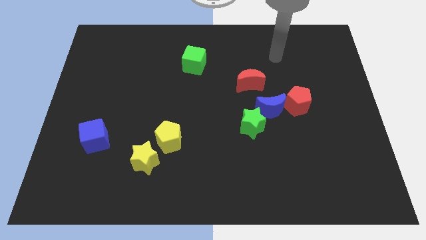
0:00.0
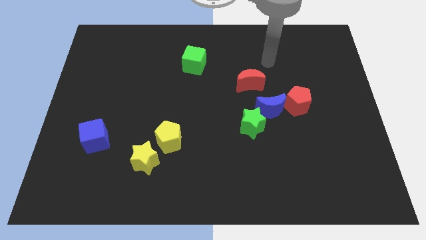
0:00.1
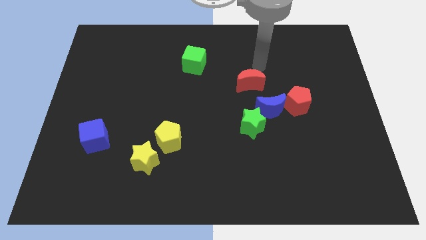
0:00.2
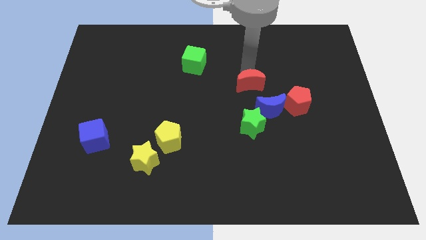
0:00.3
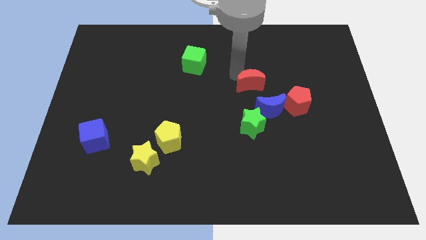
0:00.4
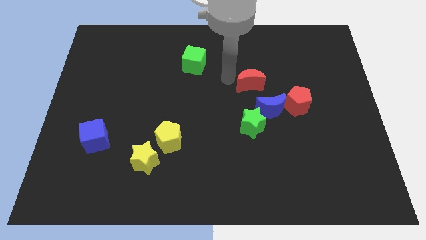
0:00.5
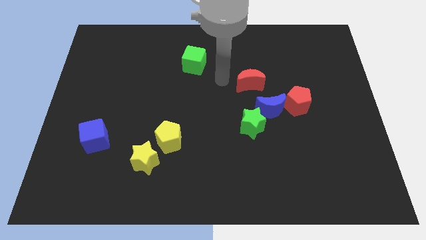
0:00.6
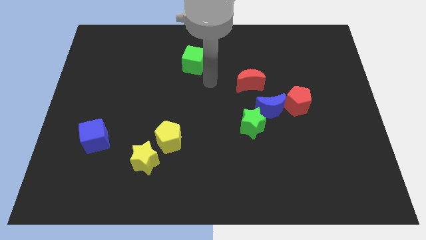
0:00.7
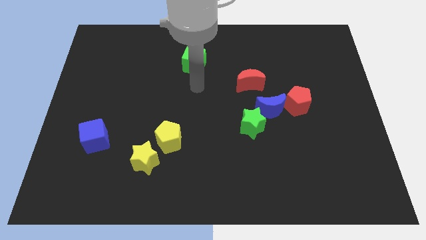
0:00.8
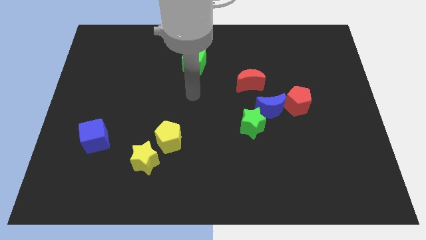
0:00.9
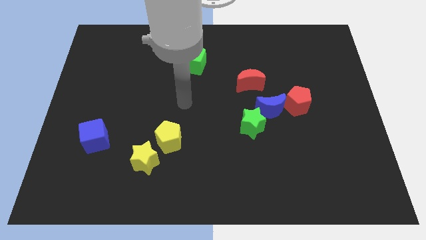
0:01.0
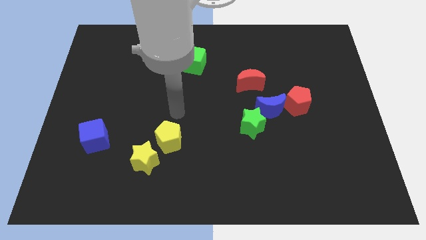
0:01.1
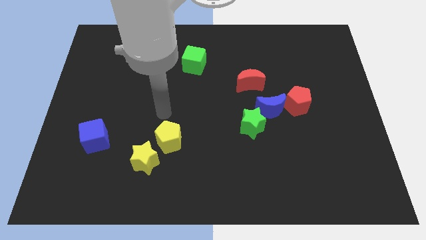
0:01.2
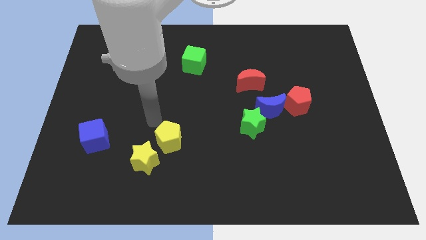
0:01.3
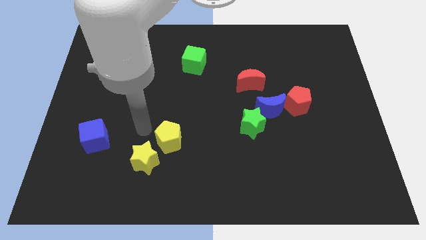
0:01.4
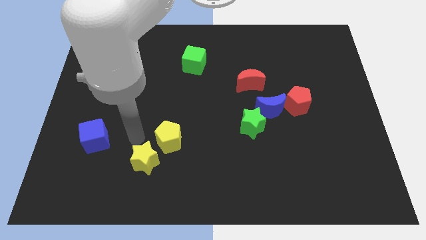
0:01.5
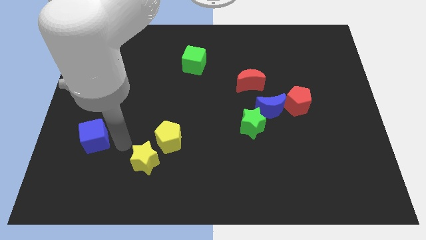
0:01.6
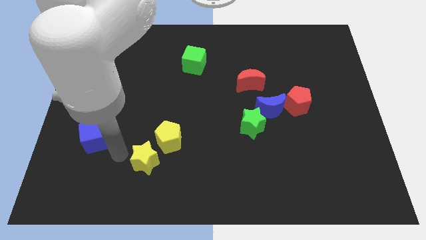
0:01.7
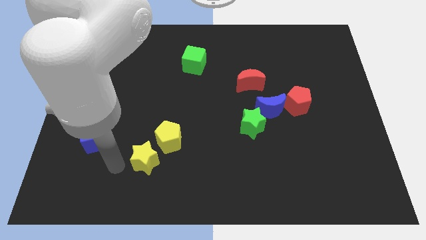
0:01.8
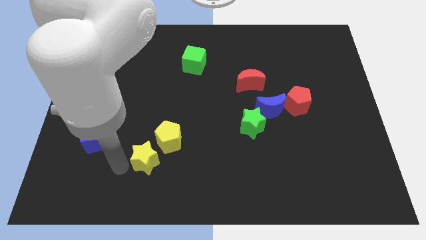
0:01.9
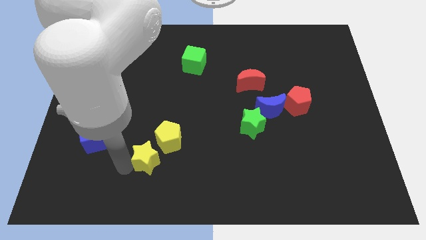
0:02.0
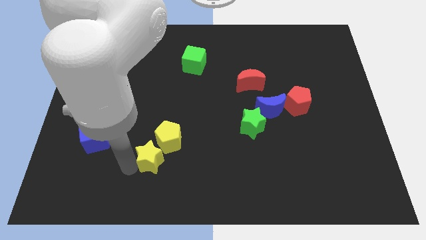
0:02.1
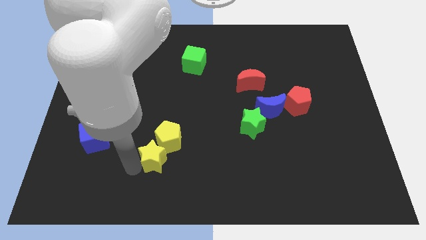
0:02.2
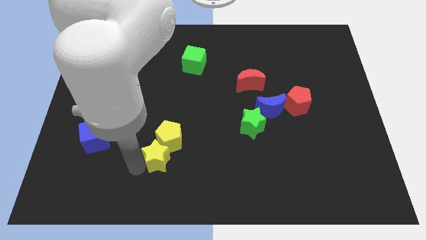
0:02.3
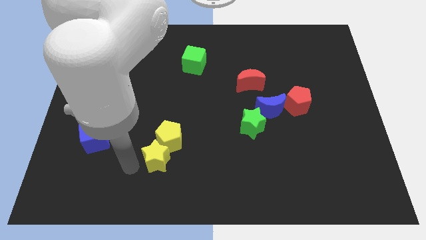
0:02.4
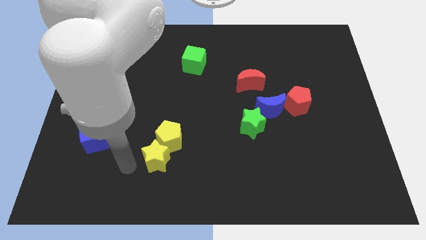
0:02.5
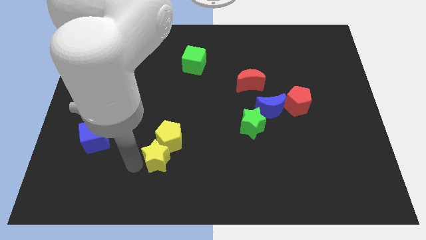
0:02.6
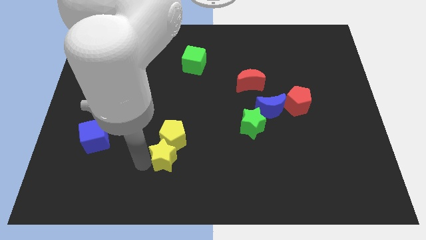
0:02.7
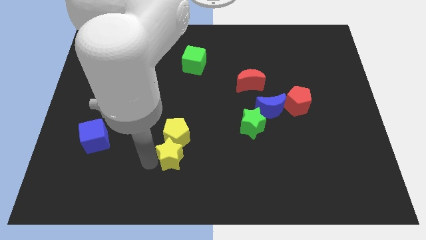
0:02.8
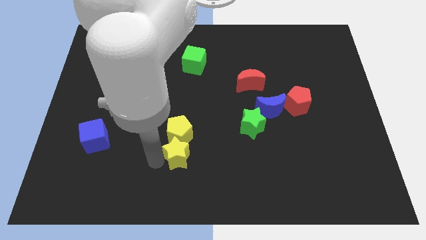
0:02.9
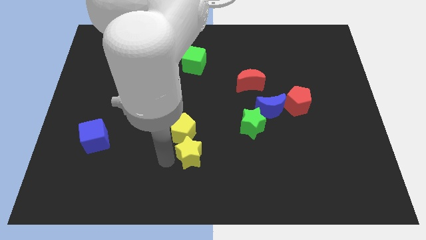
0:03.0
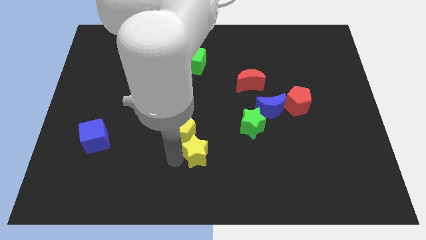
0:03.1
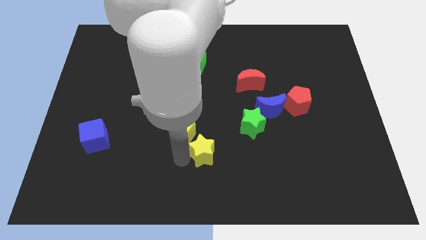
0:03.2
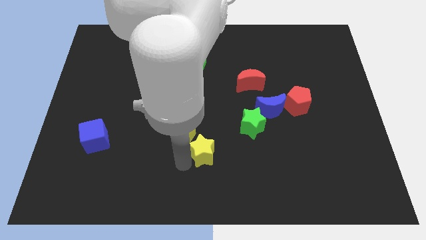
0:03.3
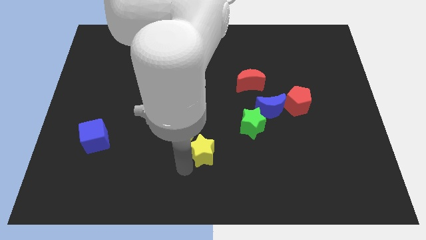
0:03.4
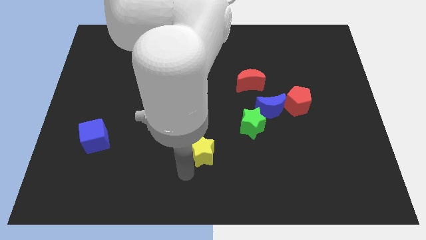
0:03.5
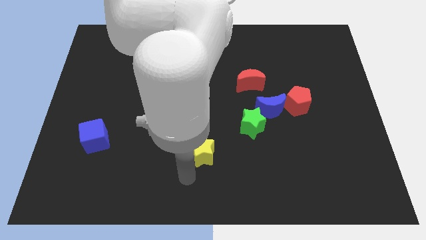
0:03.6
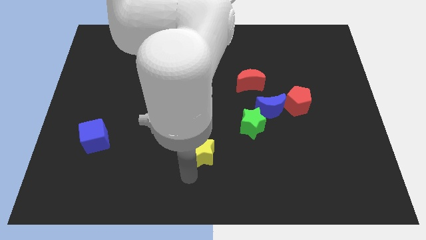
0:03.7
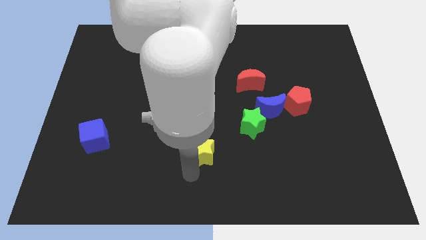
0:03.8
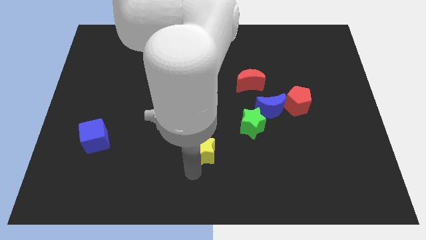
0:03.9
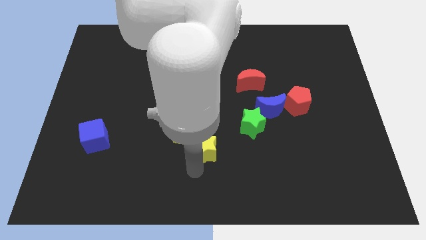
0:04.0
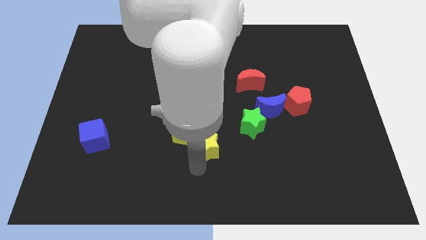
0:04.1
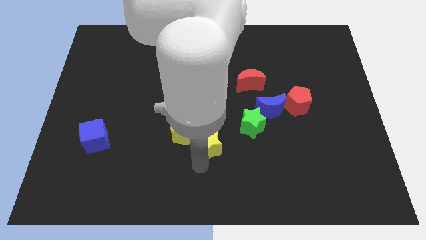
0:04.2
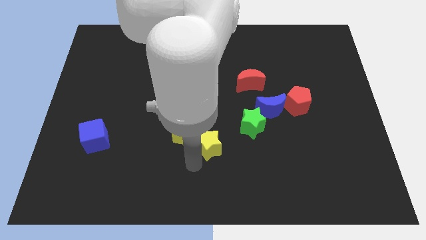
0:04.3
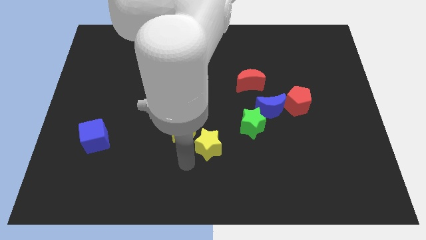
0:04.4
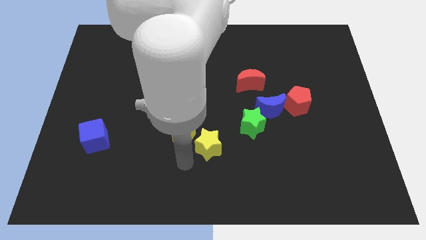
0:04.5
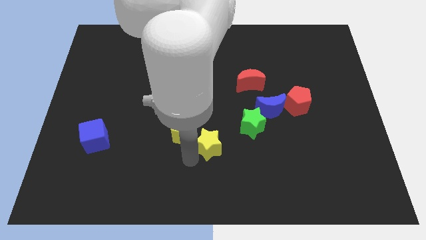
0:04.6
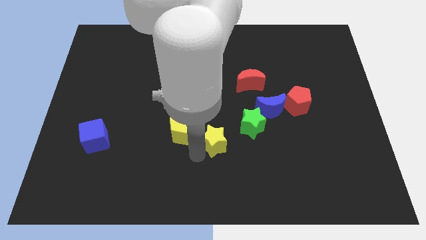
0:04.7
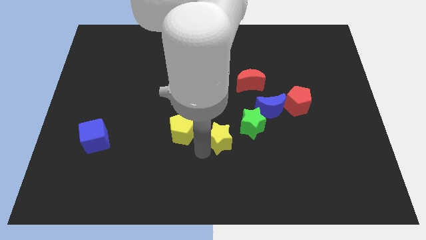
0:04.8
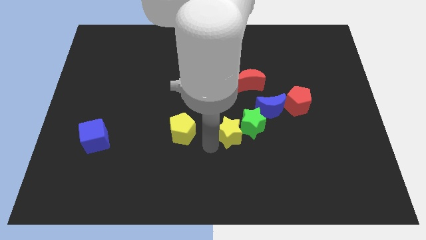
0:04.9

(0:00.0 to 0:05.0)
put the yellow star close to the green star

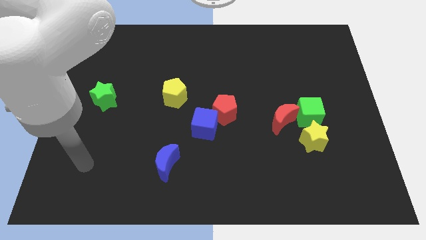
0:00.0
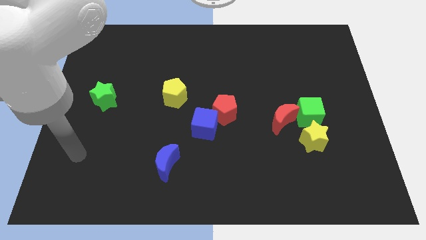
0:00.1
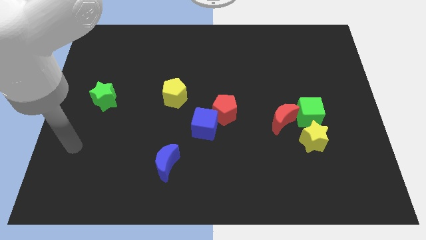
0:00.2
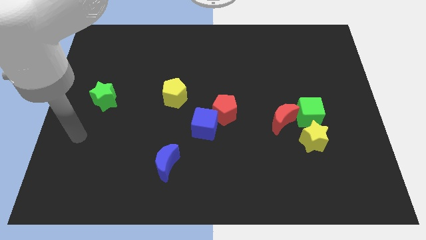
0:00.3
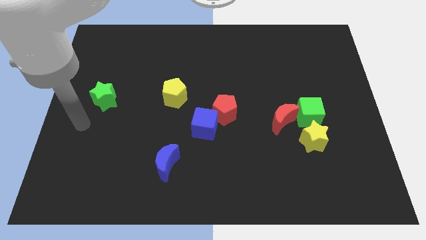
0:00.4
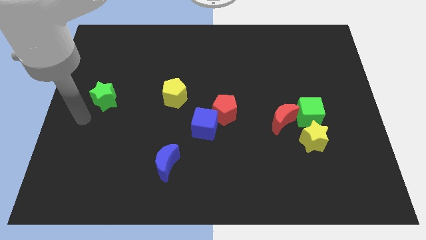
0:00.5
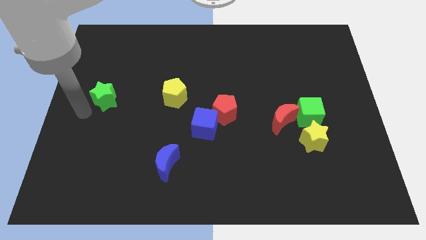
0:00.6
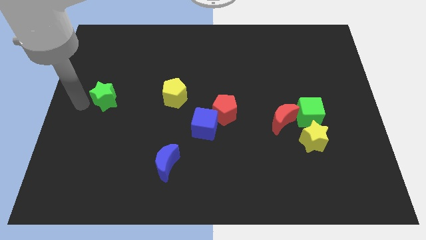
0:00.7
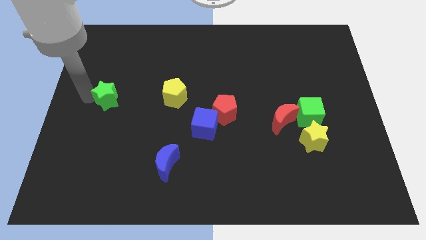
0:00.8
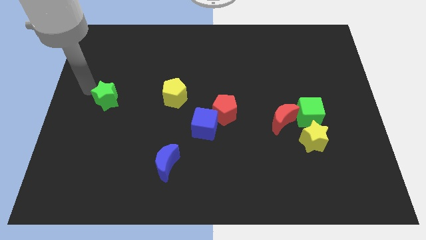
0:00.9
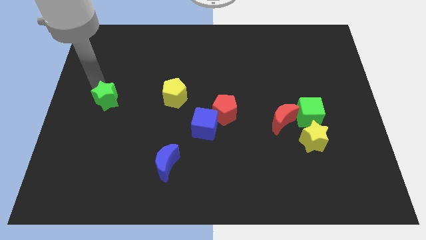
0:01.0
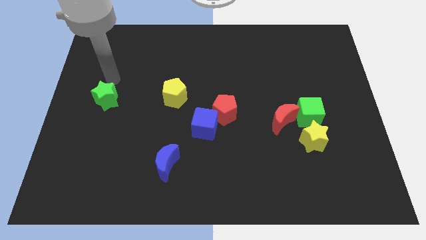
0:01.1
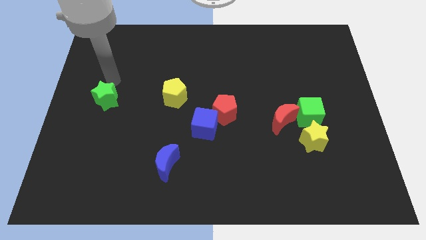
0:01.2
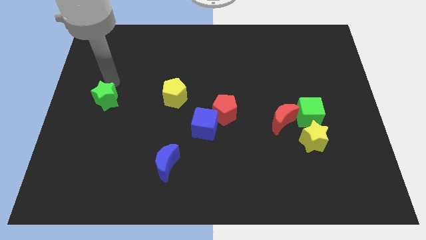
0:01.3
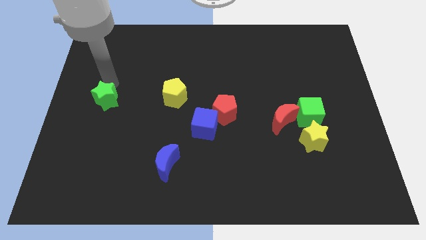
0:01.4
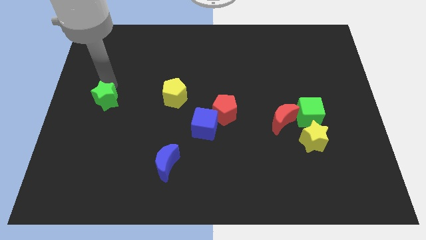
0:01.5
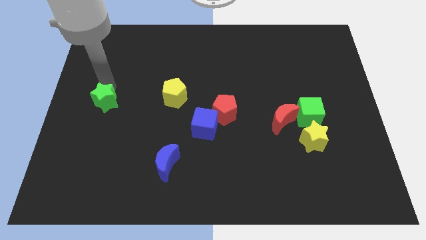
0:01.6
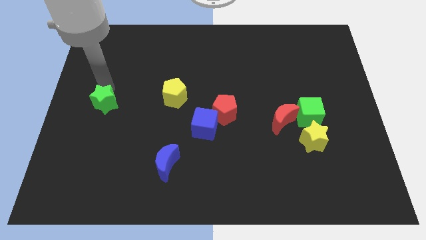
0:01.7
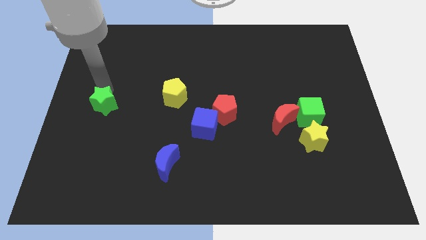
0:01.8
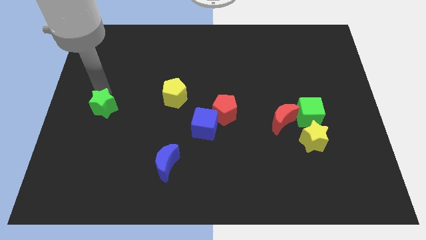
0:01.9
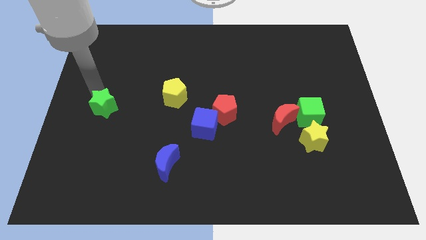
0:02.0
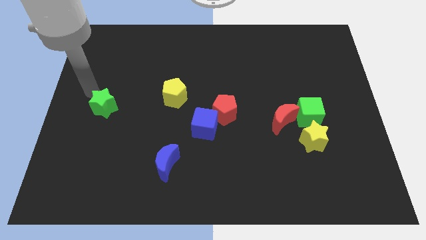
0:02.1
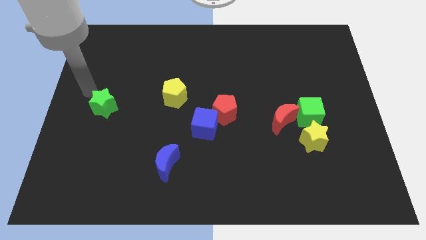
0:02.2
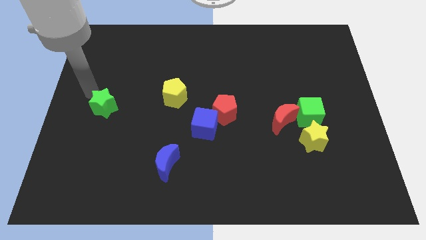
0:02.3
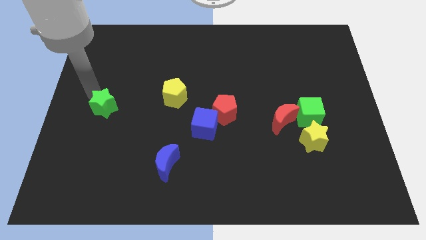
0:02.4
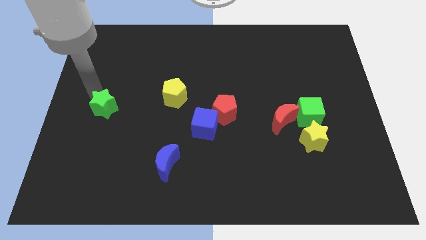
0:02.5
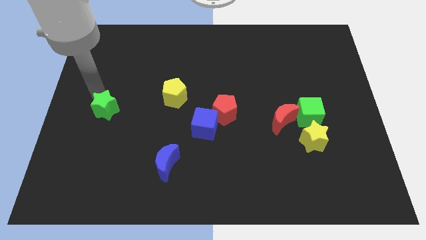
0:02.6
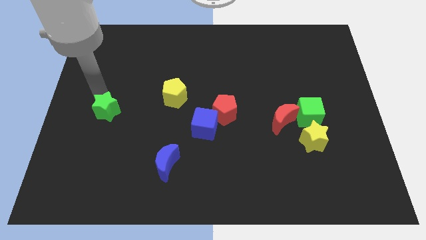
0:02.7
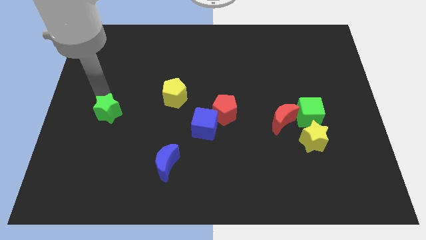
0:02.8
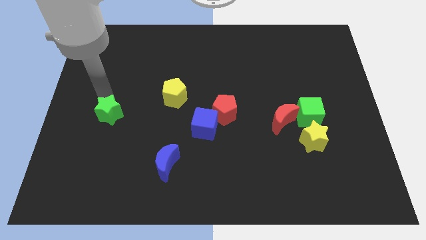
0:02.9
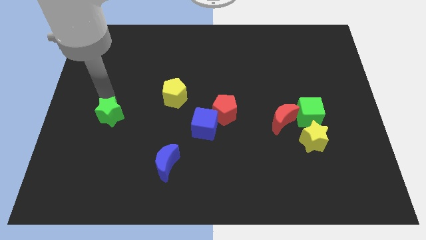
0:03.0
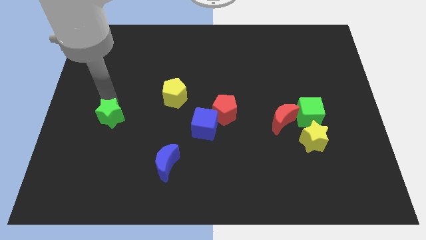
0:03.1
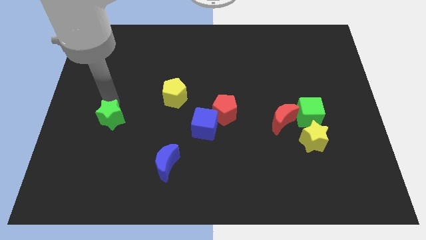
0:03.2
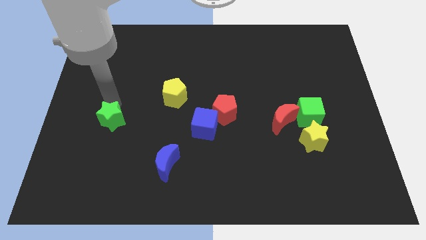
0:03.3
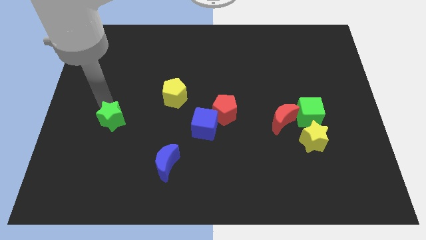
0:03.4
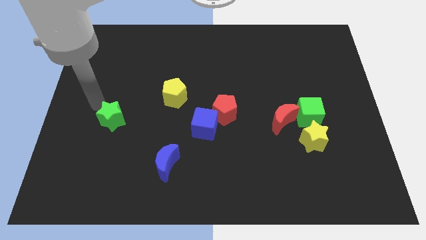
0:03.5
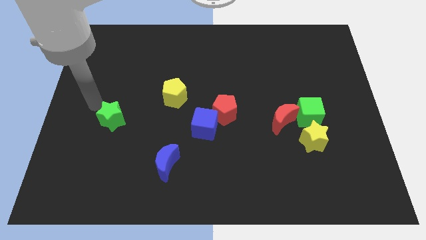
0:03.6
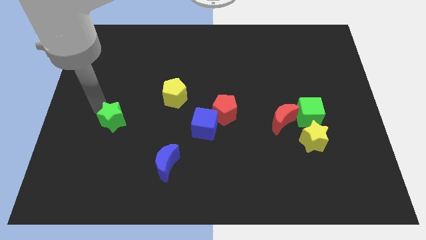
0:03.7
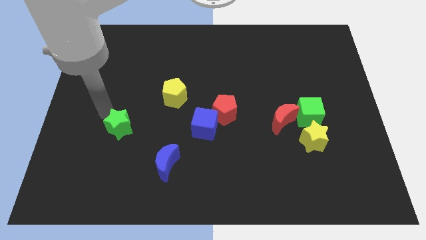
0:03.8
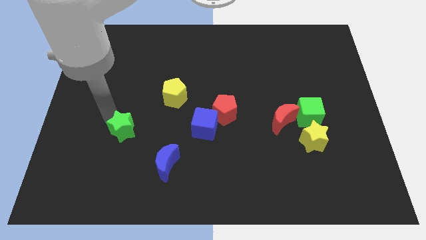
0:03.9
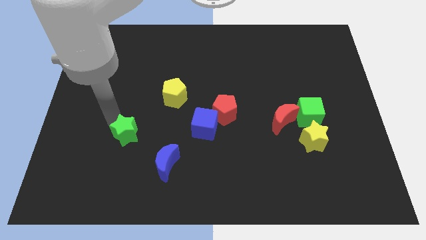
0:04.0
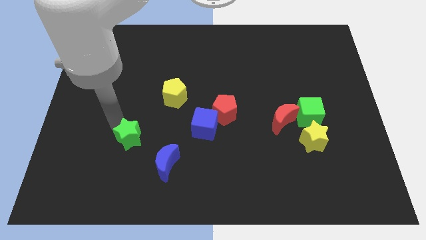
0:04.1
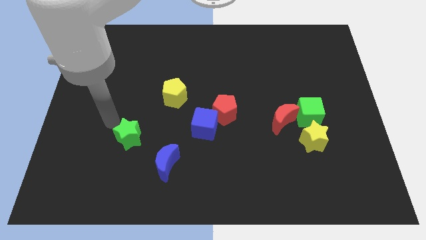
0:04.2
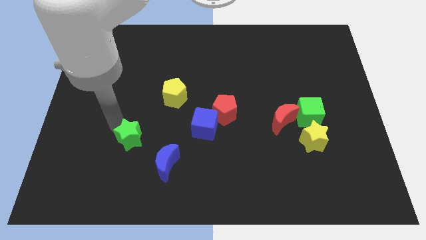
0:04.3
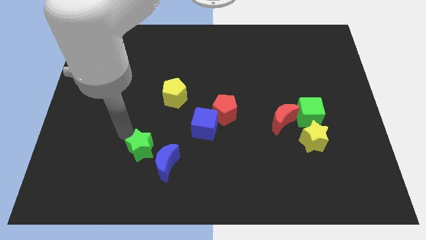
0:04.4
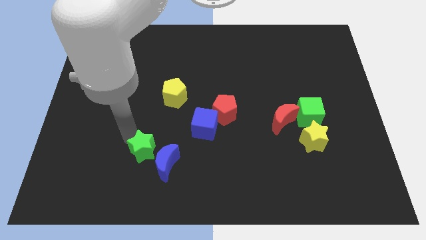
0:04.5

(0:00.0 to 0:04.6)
put the green star towards the blue moon
